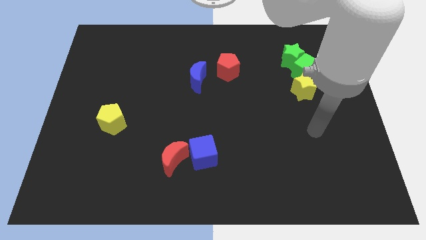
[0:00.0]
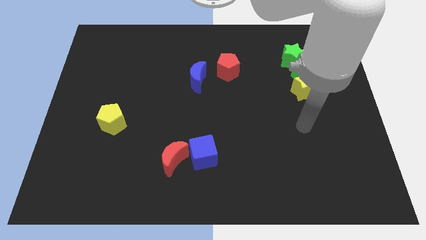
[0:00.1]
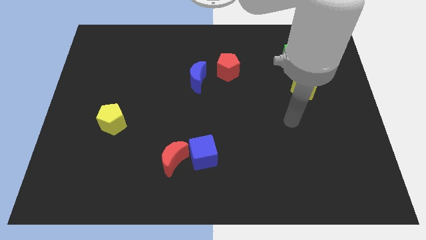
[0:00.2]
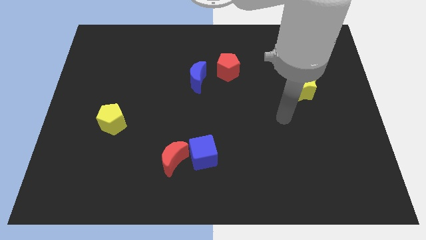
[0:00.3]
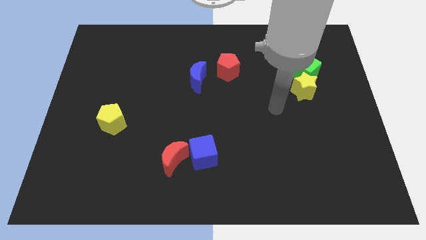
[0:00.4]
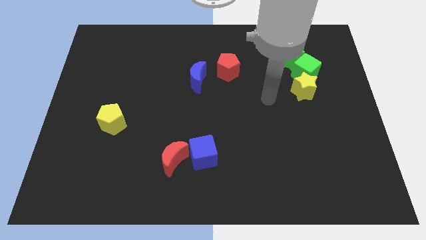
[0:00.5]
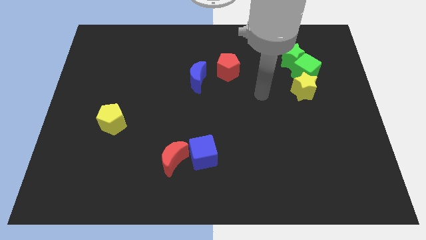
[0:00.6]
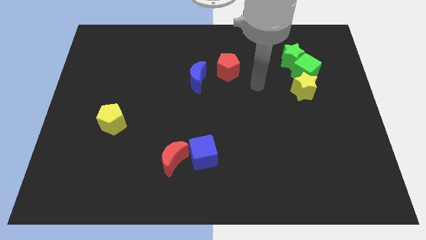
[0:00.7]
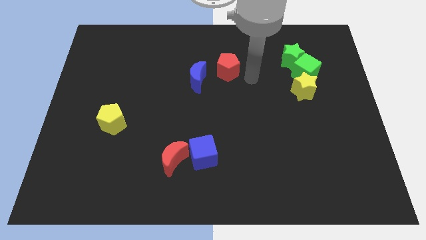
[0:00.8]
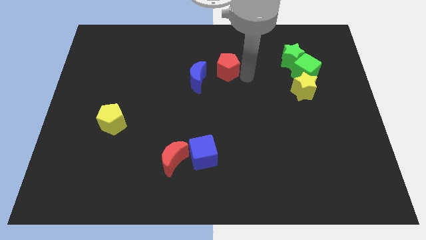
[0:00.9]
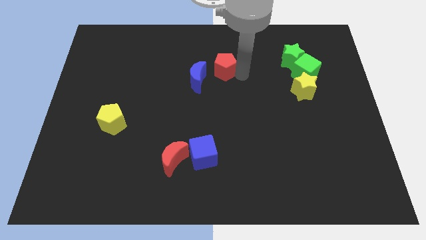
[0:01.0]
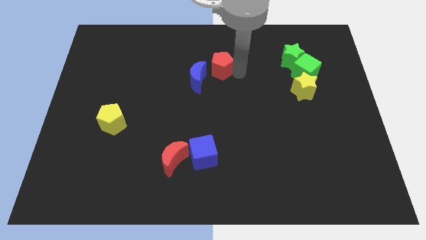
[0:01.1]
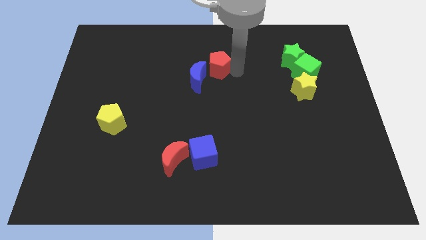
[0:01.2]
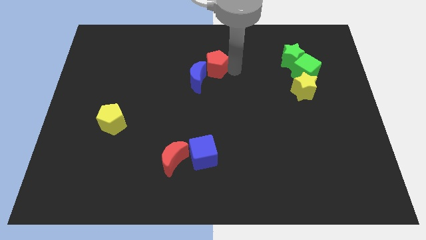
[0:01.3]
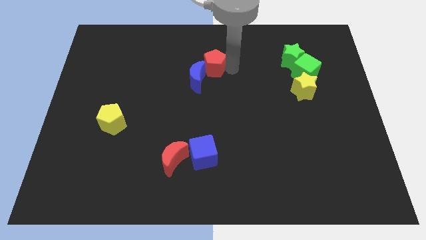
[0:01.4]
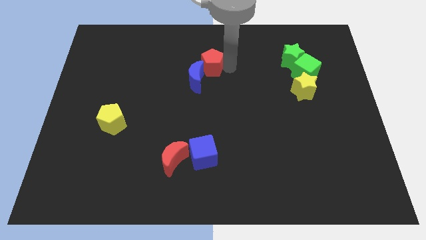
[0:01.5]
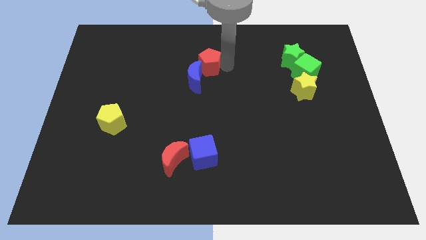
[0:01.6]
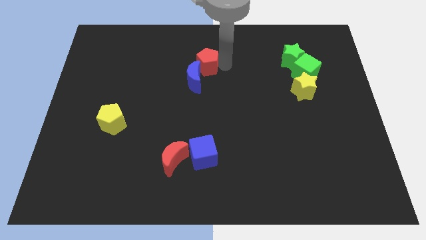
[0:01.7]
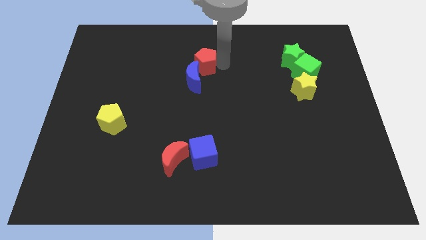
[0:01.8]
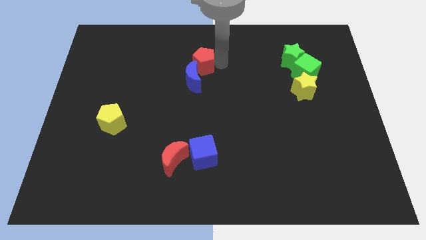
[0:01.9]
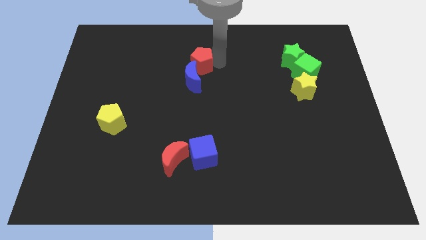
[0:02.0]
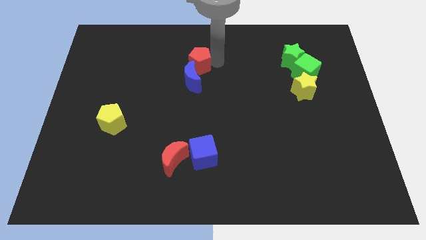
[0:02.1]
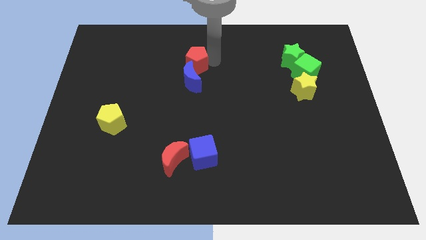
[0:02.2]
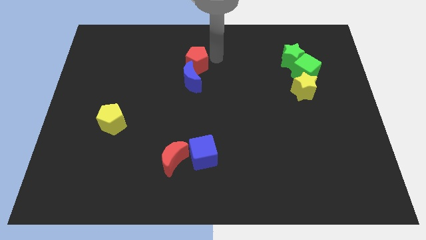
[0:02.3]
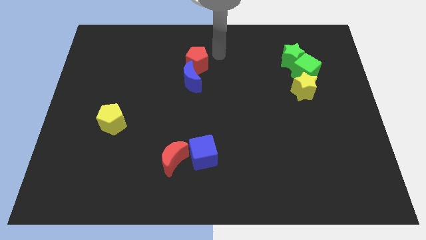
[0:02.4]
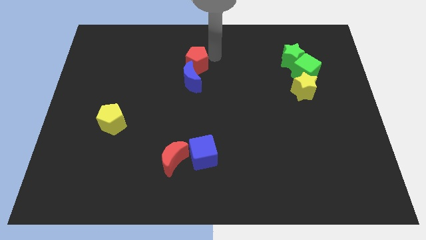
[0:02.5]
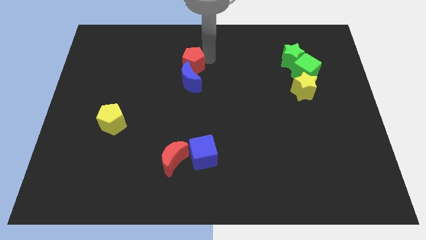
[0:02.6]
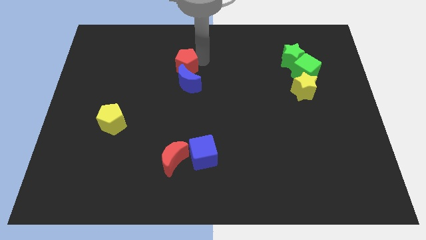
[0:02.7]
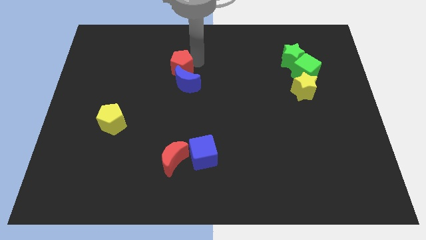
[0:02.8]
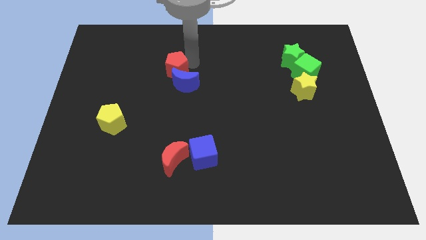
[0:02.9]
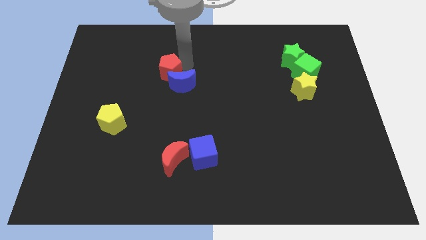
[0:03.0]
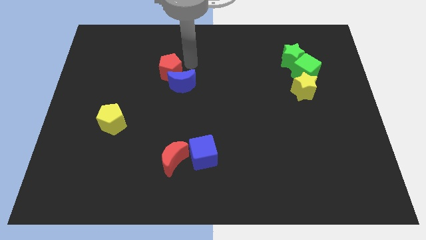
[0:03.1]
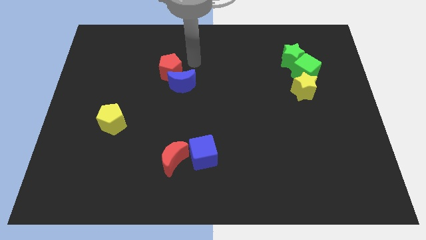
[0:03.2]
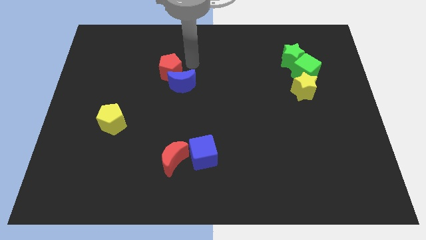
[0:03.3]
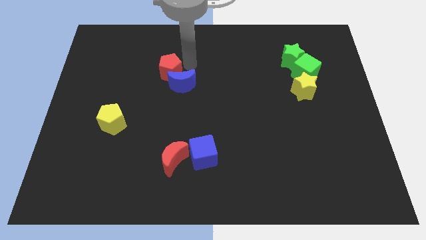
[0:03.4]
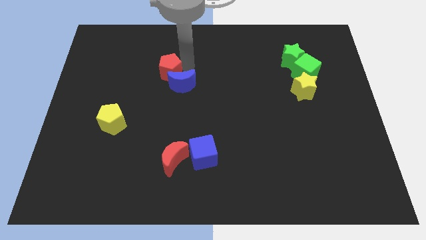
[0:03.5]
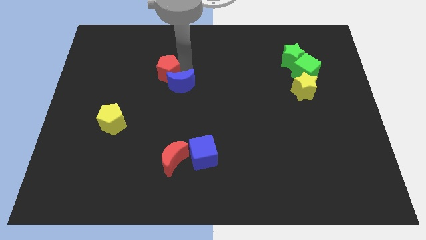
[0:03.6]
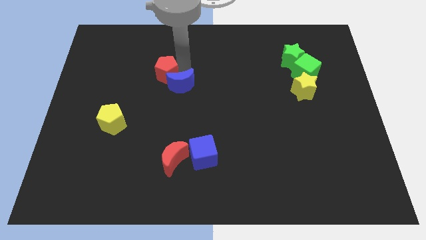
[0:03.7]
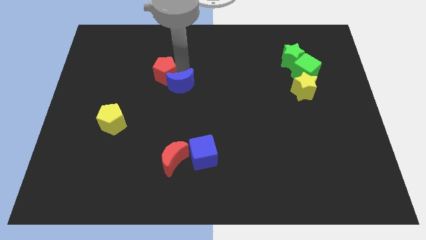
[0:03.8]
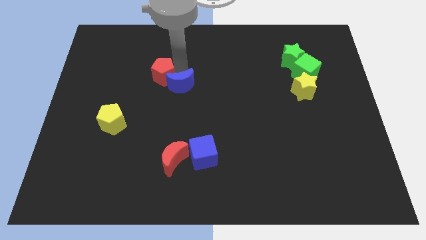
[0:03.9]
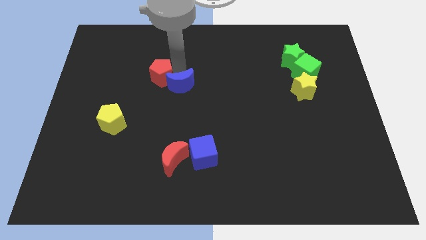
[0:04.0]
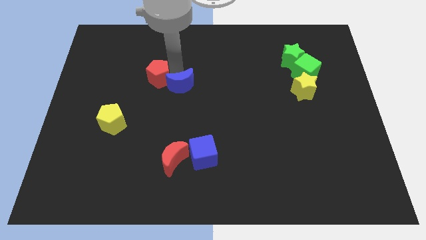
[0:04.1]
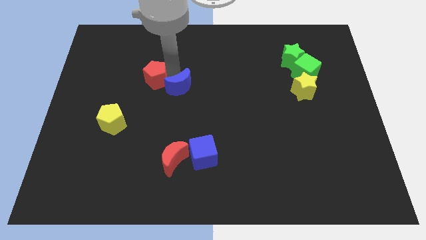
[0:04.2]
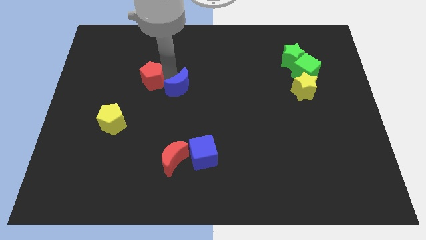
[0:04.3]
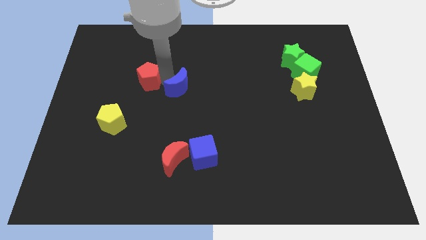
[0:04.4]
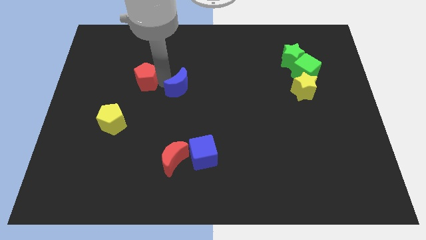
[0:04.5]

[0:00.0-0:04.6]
push the red pentagon left

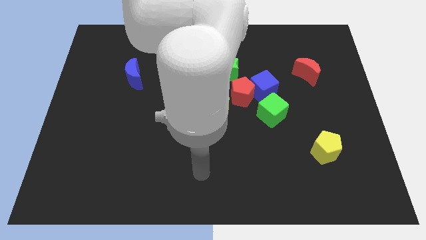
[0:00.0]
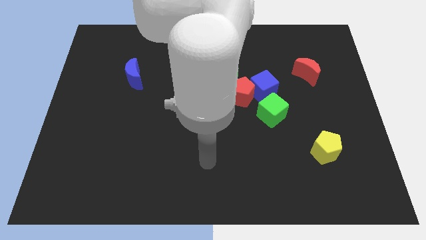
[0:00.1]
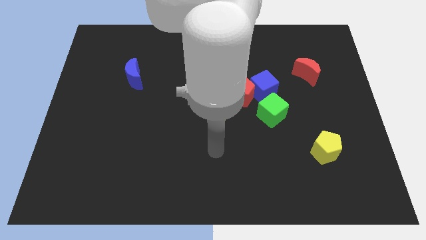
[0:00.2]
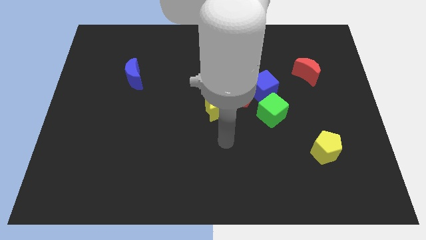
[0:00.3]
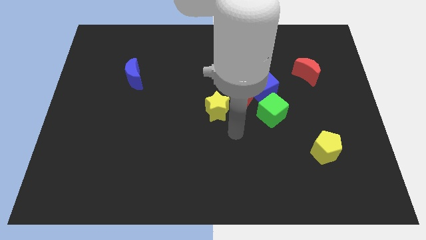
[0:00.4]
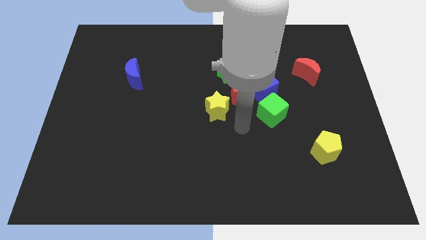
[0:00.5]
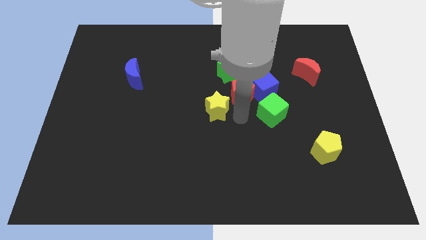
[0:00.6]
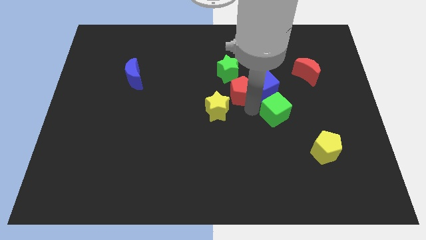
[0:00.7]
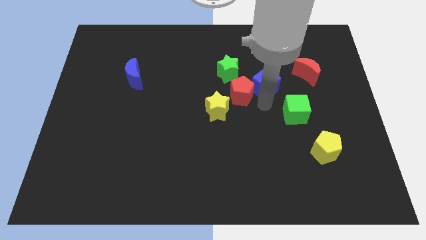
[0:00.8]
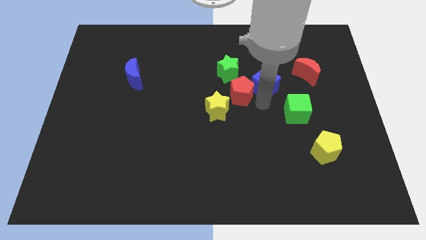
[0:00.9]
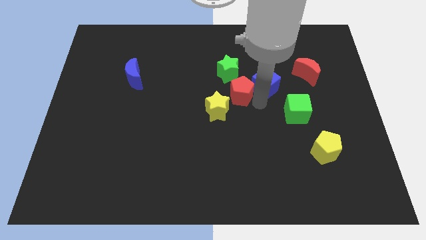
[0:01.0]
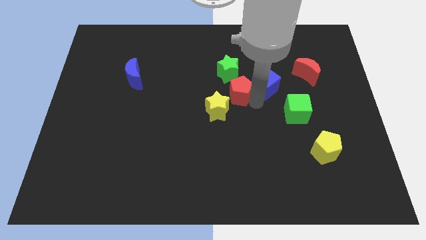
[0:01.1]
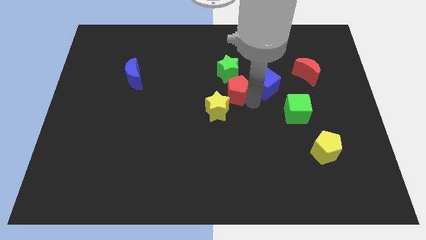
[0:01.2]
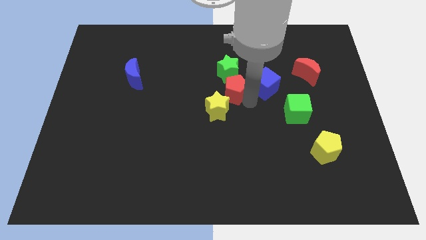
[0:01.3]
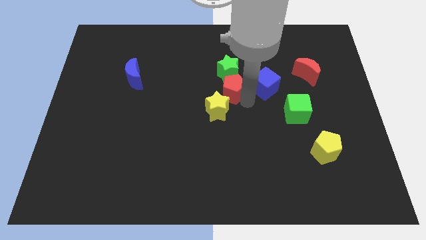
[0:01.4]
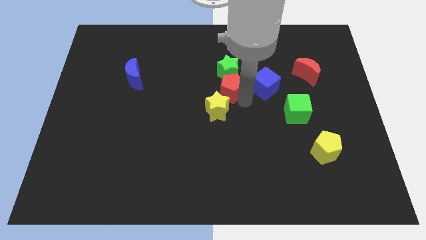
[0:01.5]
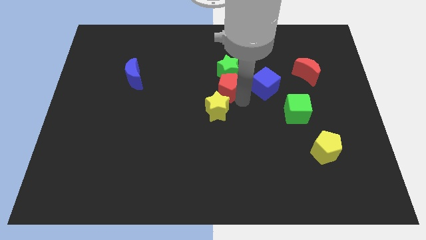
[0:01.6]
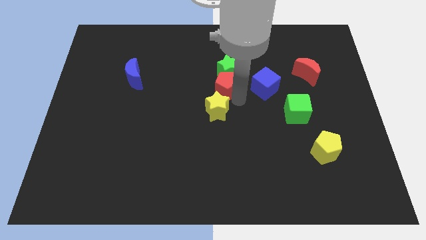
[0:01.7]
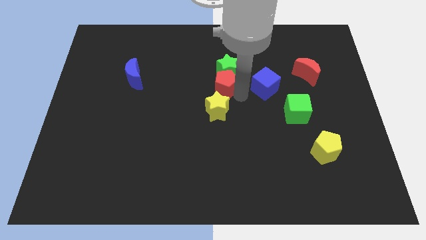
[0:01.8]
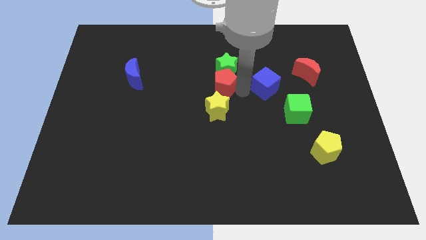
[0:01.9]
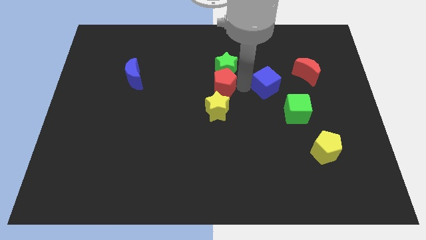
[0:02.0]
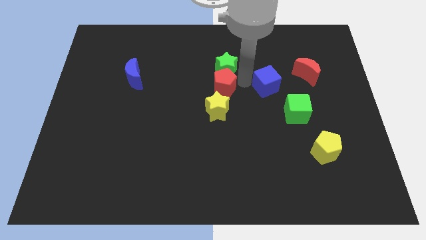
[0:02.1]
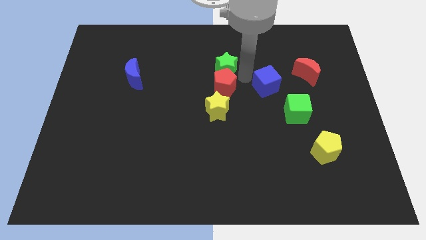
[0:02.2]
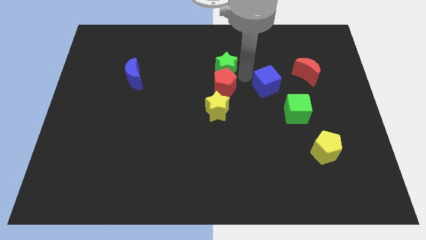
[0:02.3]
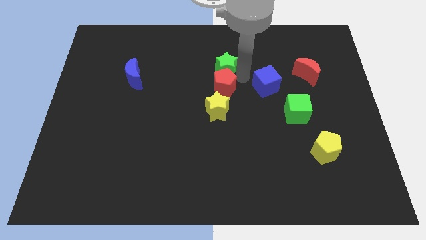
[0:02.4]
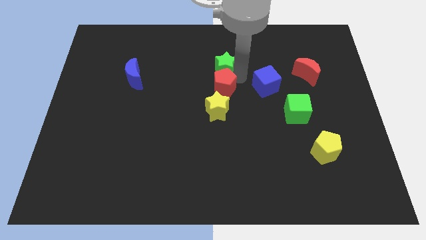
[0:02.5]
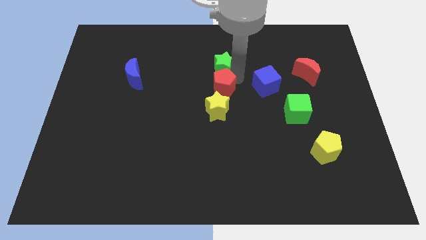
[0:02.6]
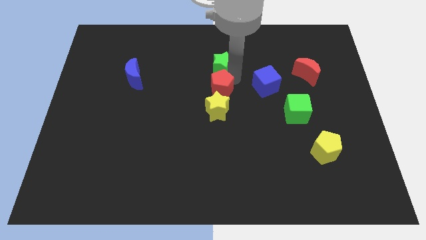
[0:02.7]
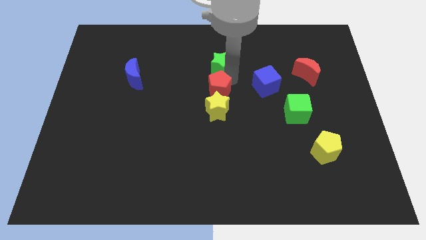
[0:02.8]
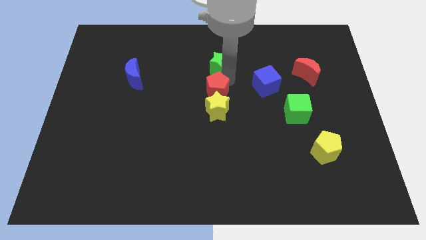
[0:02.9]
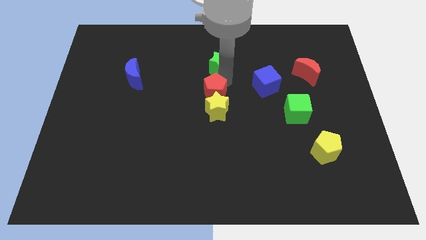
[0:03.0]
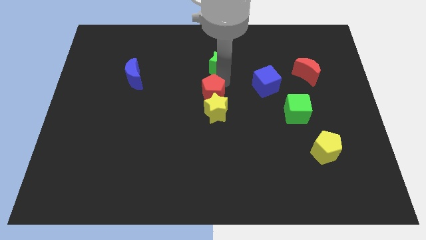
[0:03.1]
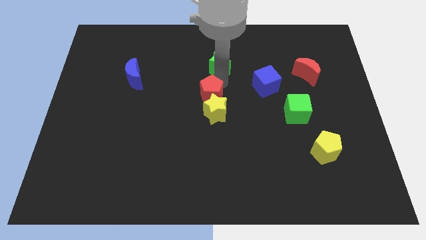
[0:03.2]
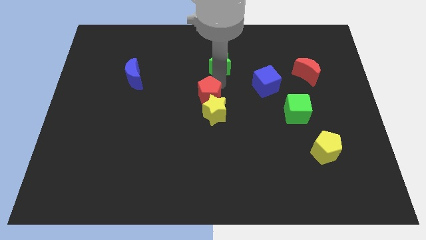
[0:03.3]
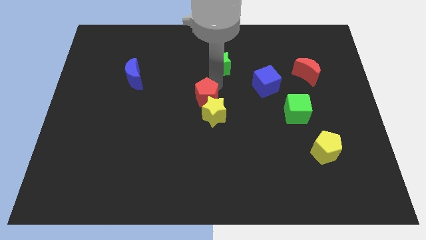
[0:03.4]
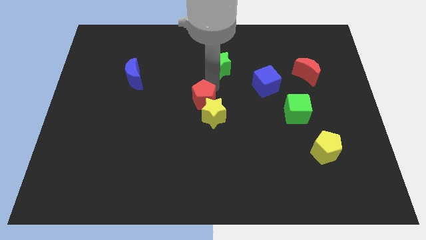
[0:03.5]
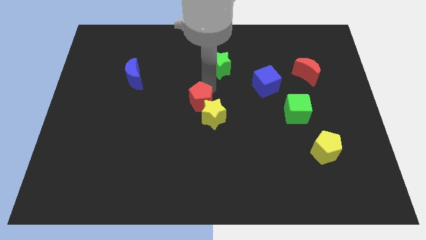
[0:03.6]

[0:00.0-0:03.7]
move the red pentagon a little bit diagonally downwards and left
